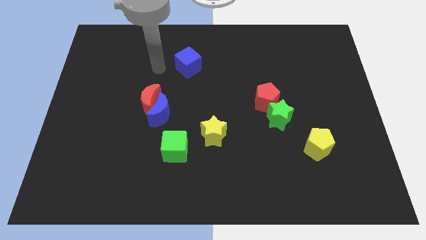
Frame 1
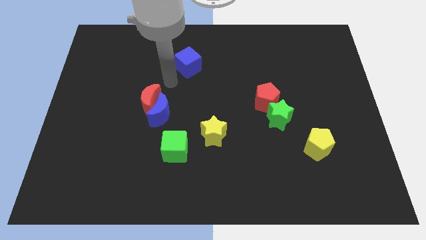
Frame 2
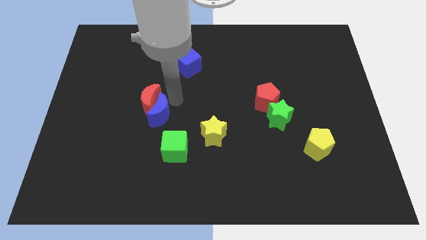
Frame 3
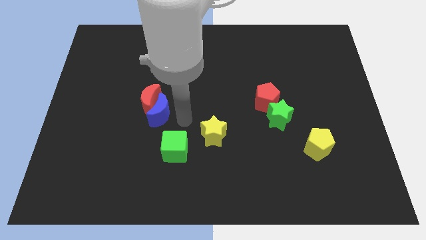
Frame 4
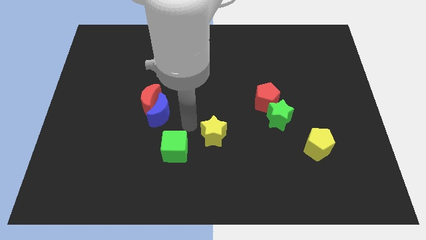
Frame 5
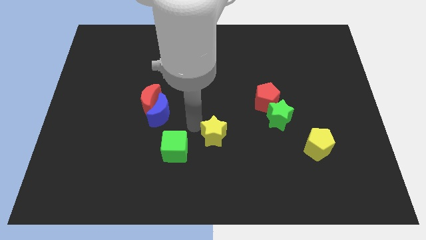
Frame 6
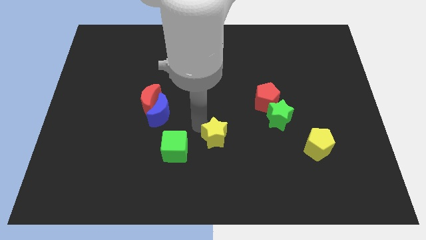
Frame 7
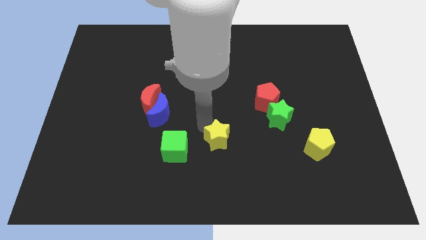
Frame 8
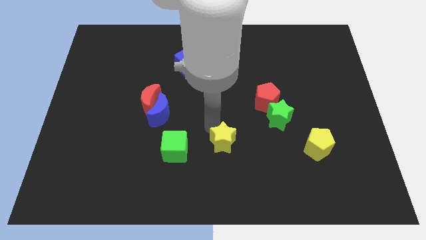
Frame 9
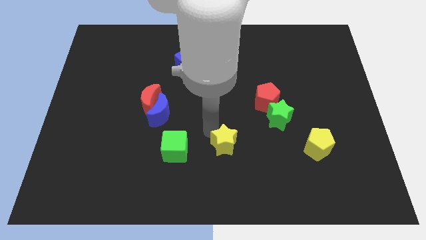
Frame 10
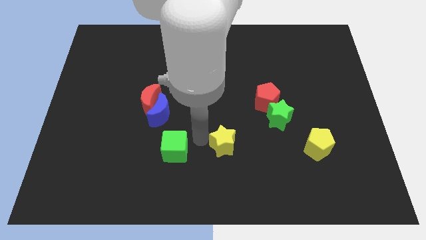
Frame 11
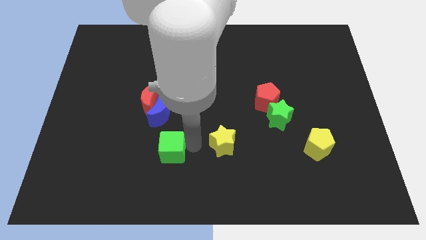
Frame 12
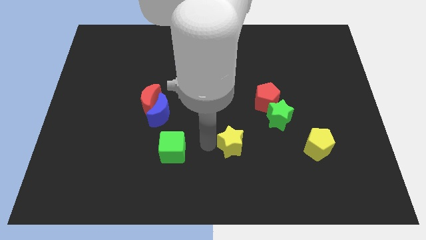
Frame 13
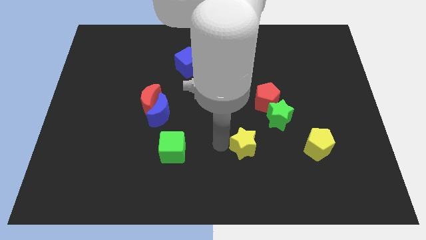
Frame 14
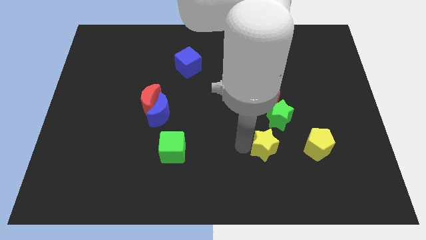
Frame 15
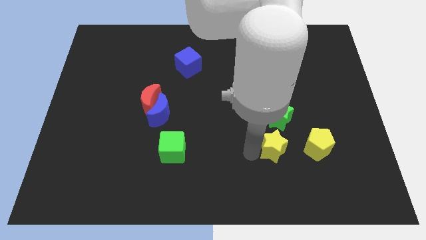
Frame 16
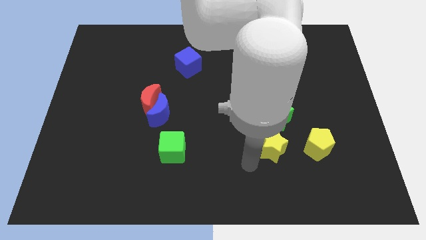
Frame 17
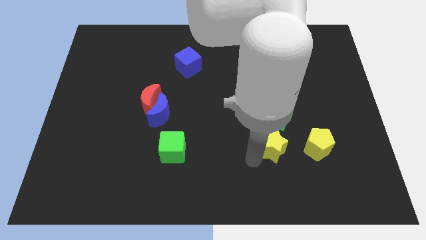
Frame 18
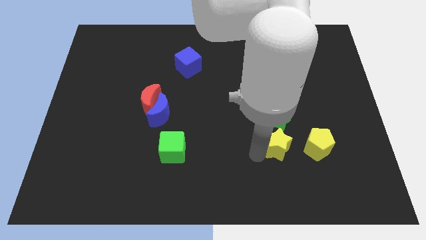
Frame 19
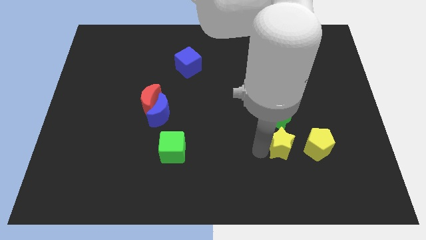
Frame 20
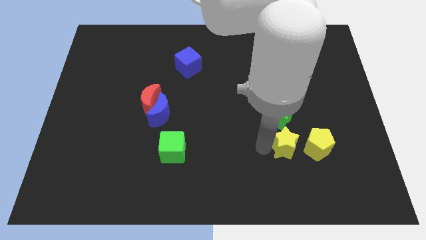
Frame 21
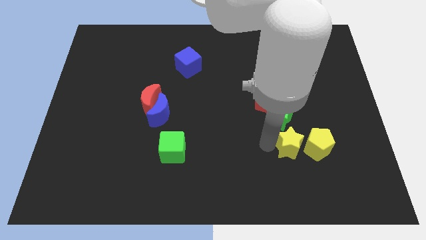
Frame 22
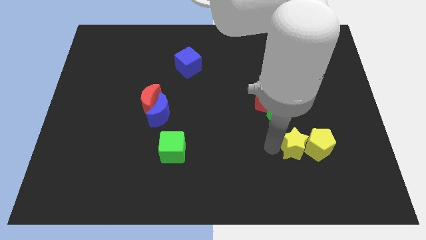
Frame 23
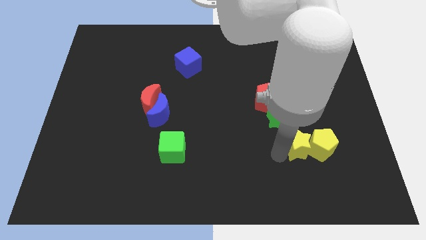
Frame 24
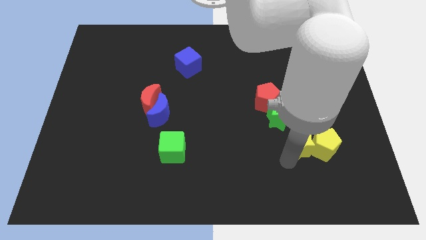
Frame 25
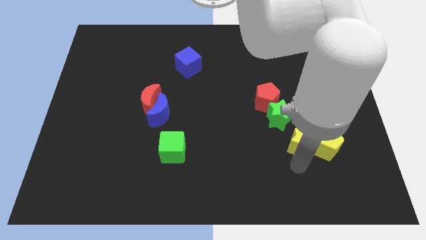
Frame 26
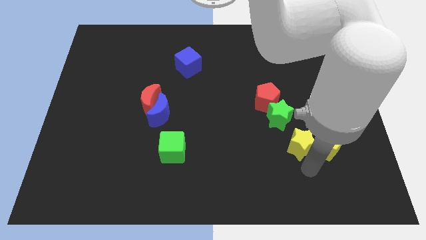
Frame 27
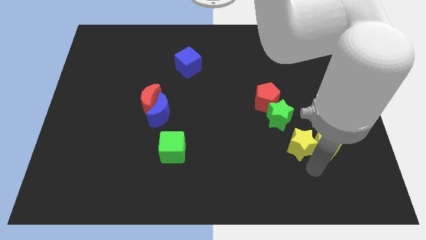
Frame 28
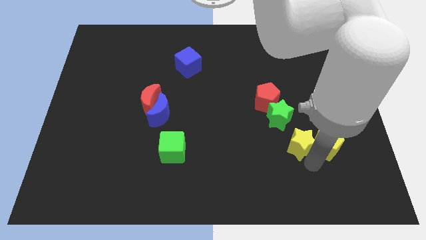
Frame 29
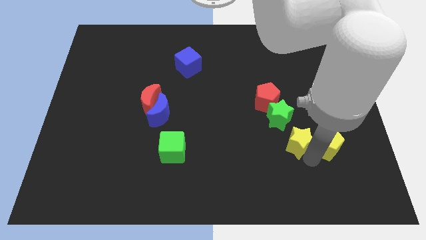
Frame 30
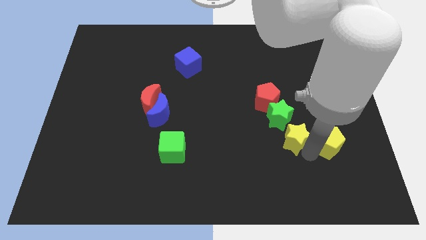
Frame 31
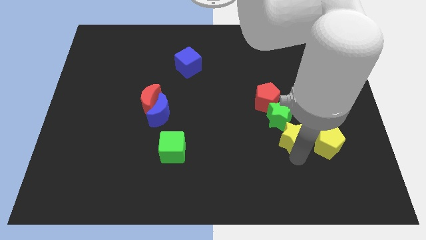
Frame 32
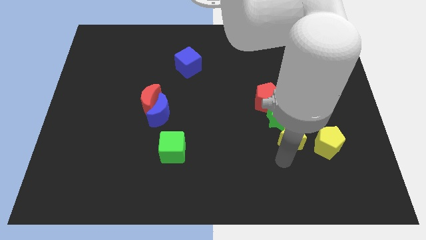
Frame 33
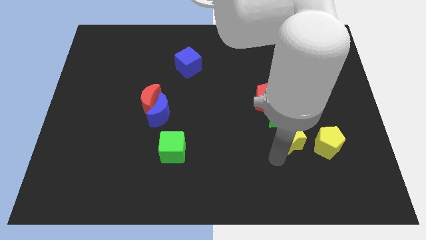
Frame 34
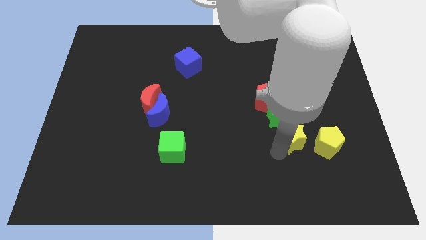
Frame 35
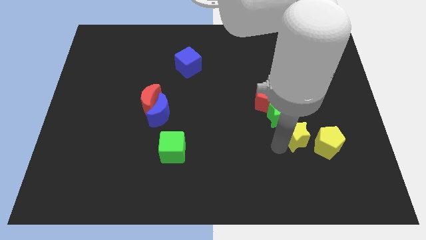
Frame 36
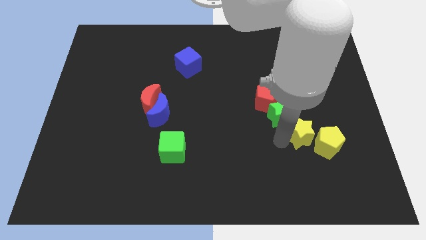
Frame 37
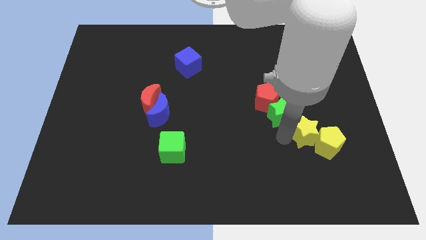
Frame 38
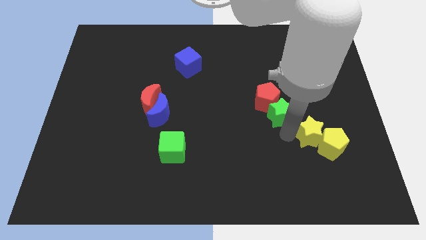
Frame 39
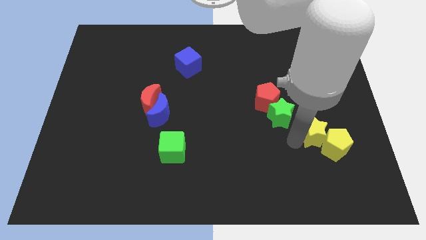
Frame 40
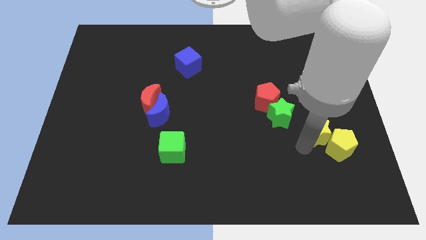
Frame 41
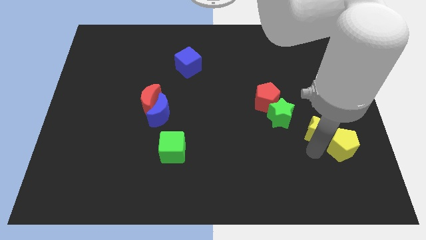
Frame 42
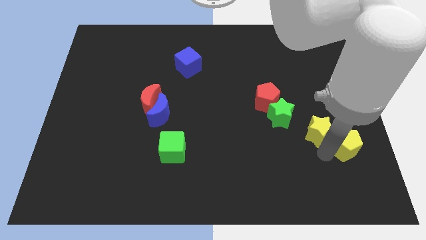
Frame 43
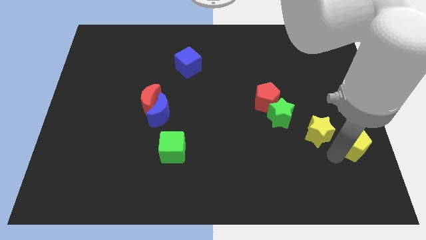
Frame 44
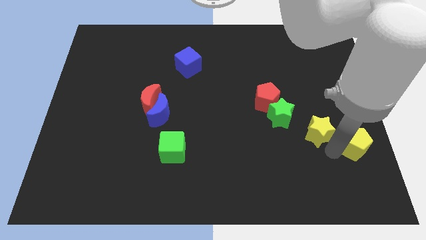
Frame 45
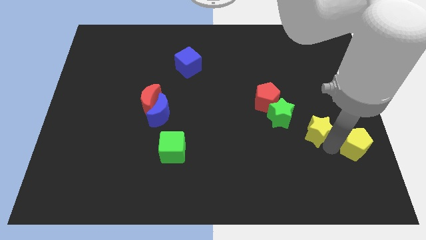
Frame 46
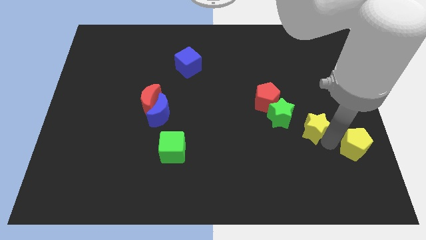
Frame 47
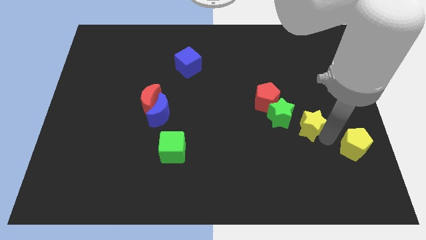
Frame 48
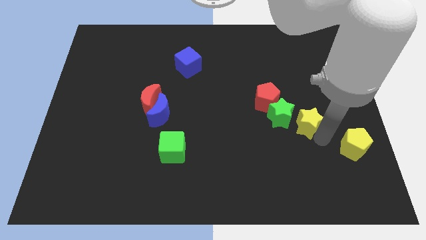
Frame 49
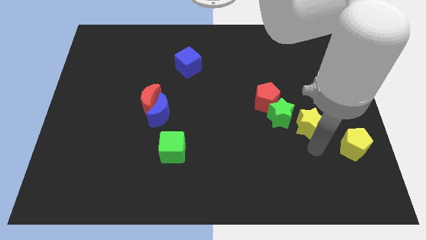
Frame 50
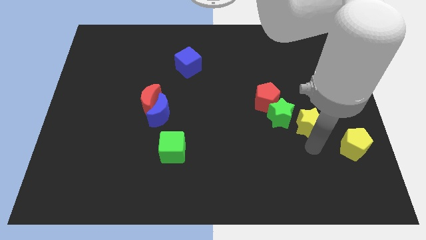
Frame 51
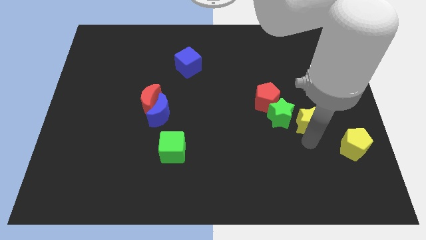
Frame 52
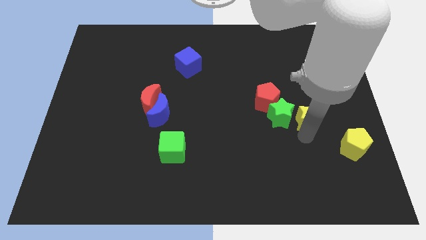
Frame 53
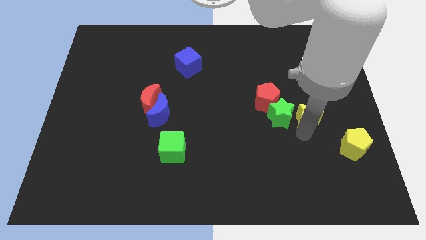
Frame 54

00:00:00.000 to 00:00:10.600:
slide the yellow star to the top right side of the green star

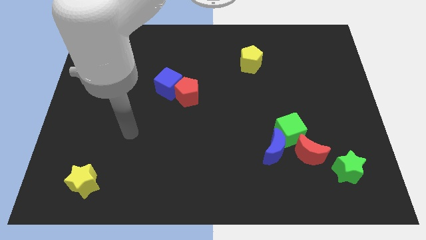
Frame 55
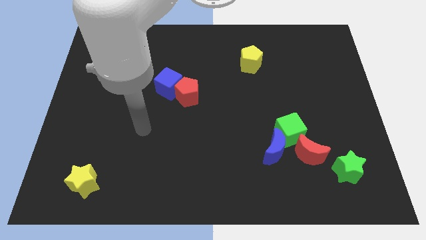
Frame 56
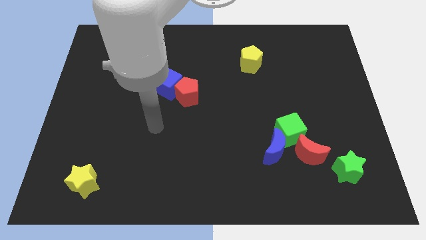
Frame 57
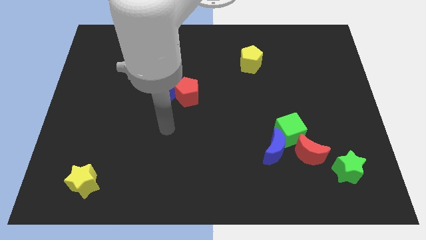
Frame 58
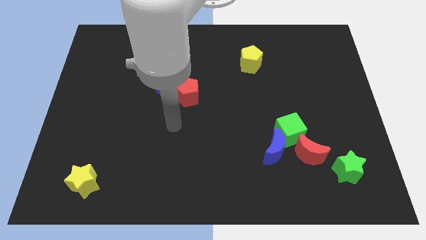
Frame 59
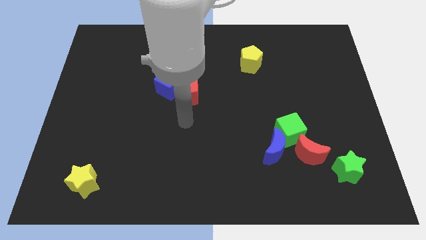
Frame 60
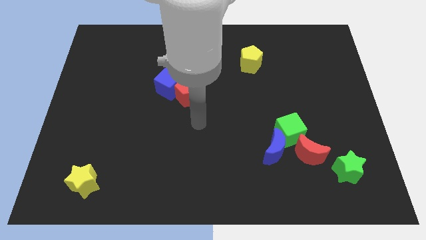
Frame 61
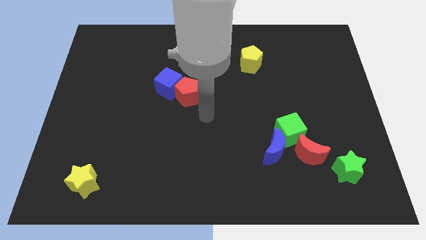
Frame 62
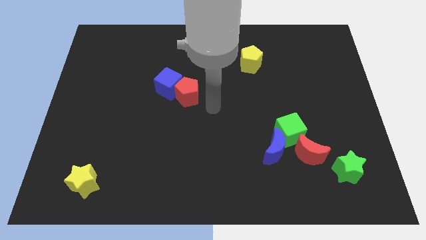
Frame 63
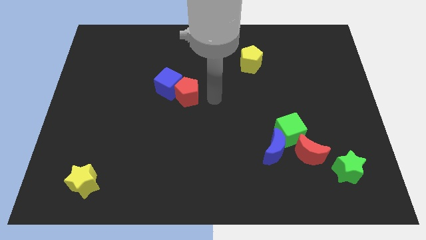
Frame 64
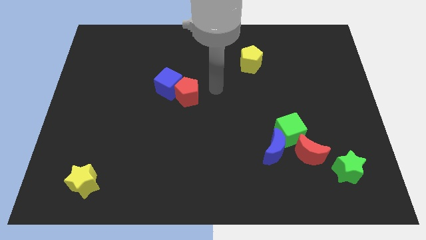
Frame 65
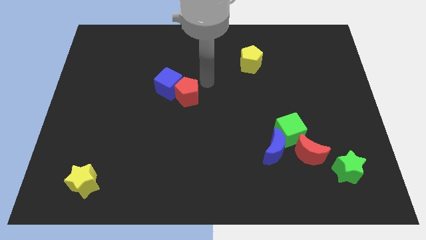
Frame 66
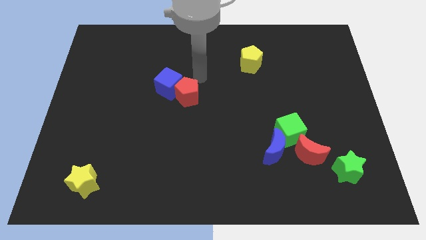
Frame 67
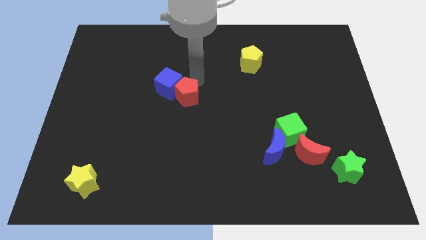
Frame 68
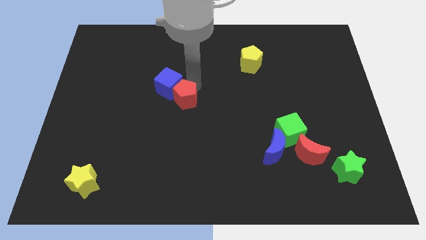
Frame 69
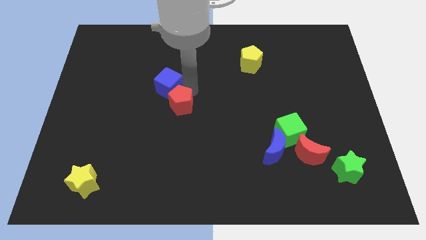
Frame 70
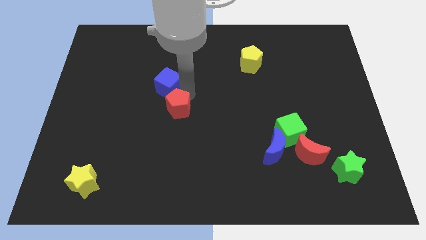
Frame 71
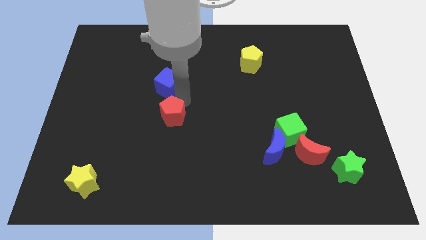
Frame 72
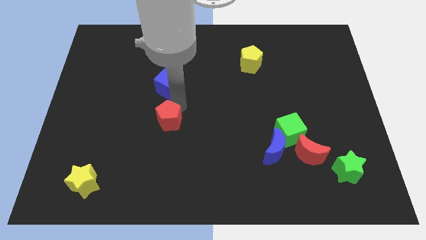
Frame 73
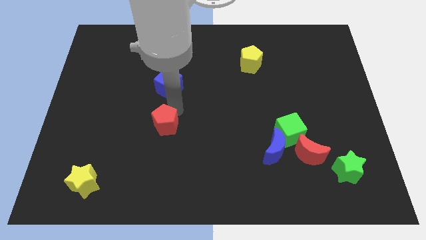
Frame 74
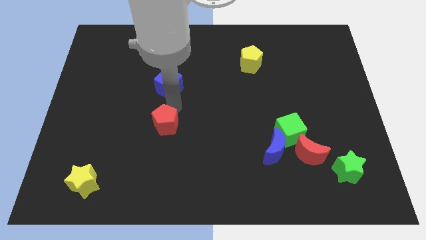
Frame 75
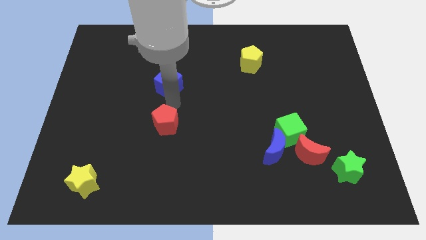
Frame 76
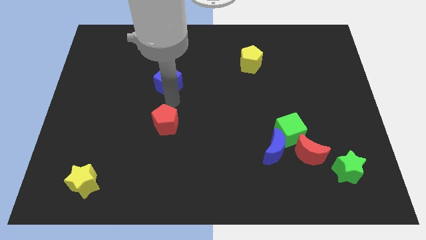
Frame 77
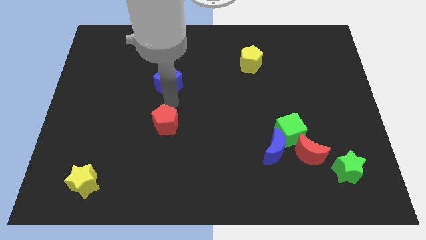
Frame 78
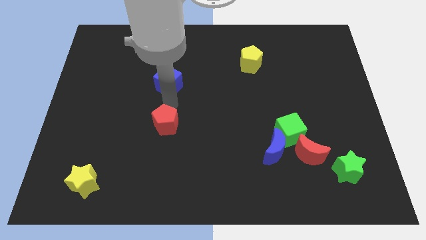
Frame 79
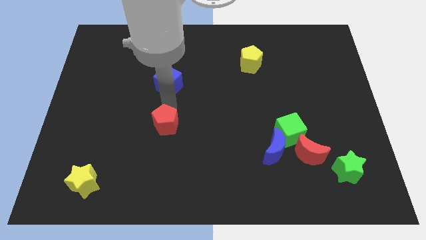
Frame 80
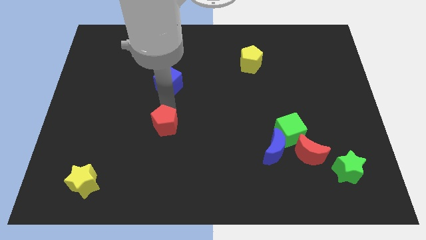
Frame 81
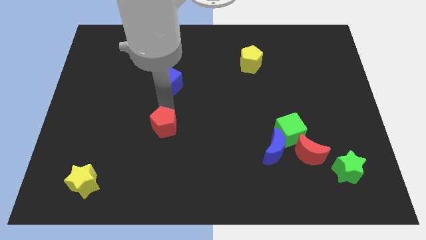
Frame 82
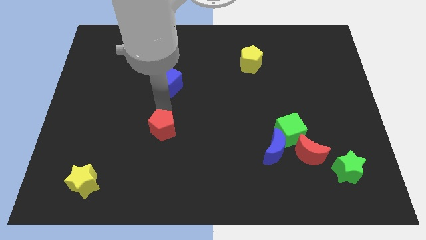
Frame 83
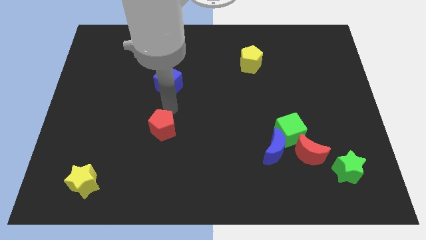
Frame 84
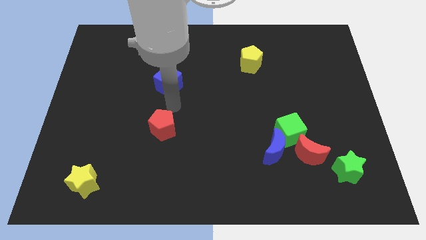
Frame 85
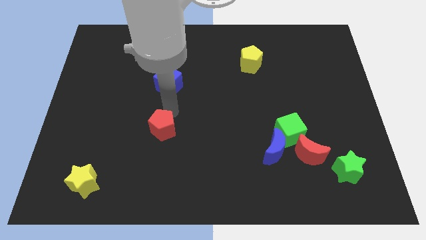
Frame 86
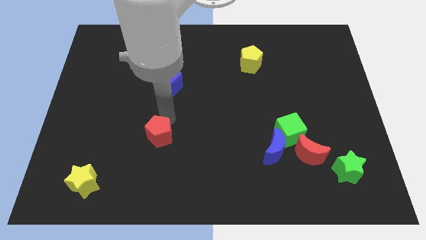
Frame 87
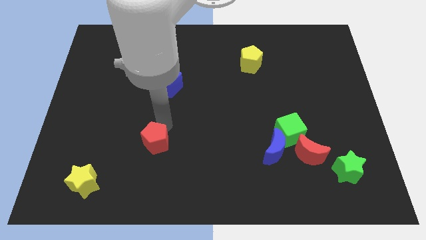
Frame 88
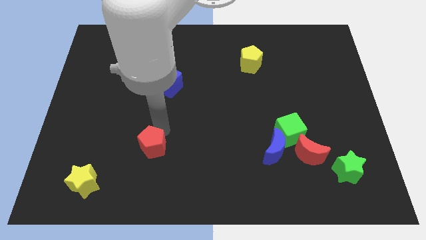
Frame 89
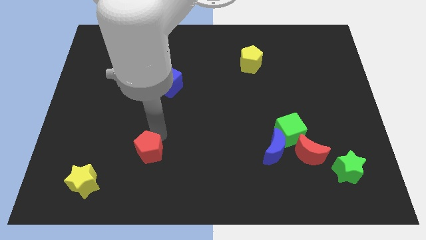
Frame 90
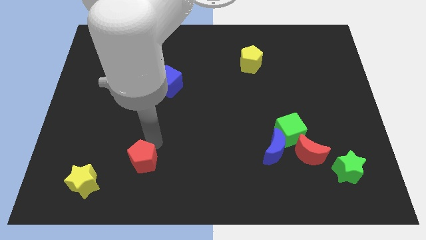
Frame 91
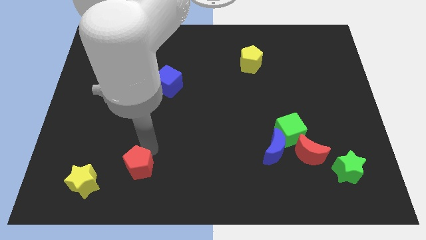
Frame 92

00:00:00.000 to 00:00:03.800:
push the red pentagon to the right of the yellow star
